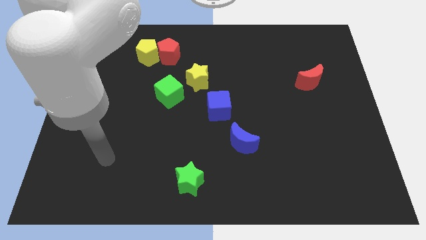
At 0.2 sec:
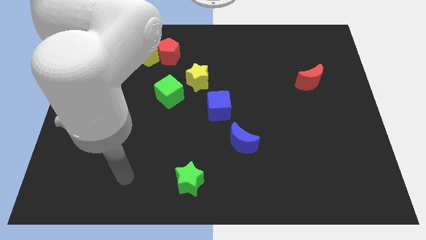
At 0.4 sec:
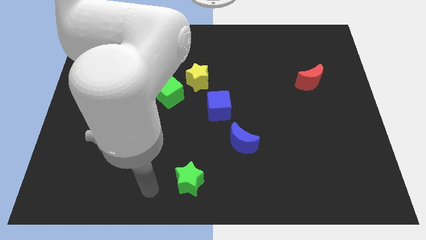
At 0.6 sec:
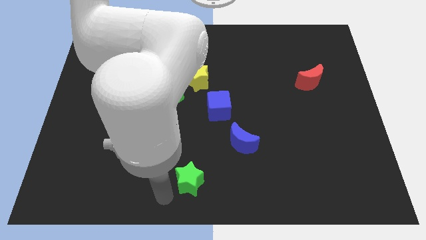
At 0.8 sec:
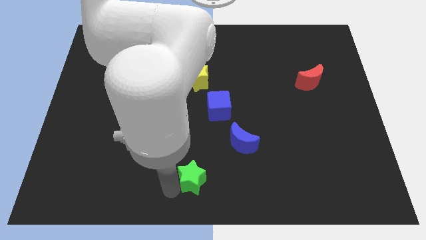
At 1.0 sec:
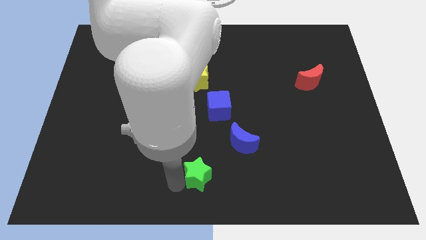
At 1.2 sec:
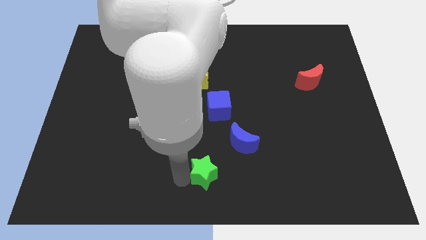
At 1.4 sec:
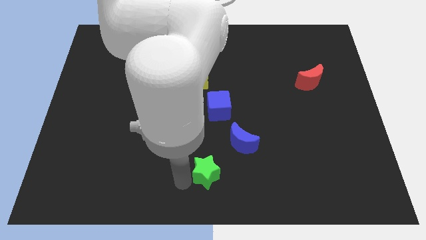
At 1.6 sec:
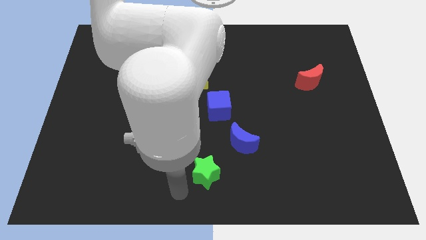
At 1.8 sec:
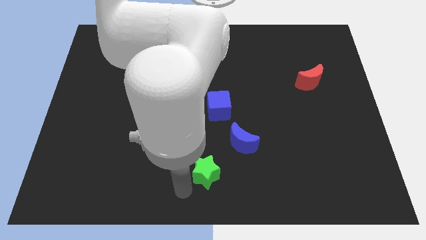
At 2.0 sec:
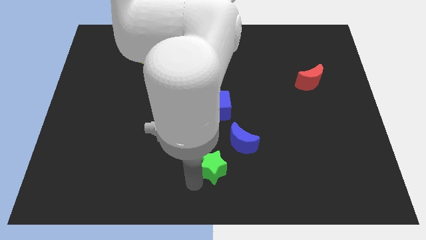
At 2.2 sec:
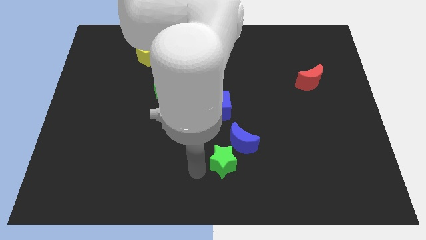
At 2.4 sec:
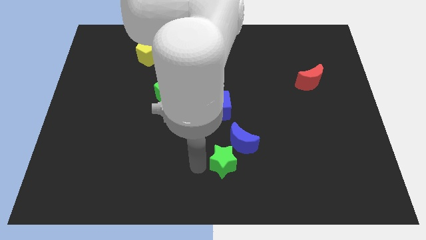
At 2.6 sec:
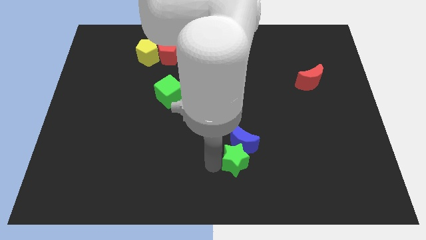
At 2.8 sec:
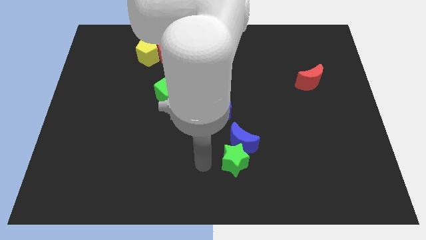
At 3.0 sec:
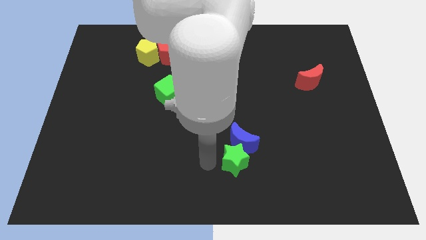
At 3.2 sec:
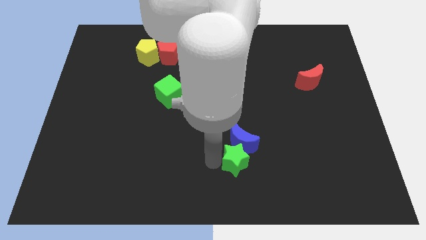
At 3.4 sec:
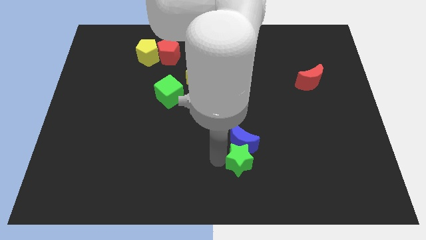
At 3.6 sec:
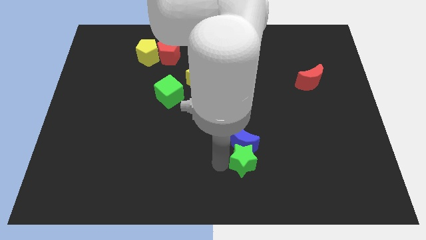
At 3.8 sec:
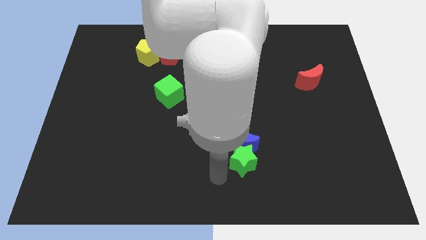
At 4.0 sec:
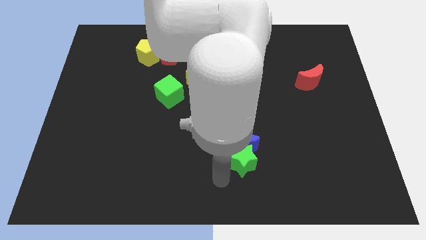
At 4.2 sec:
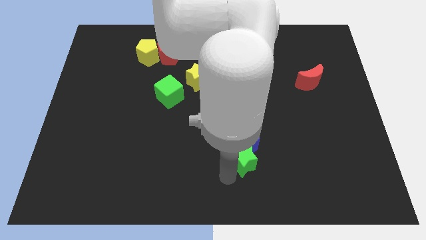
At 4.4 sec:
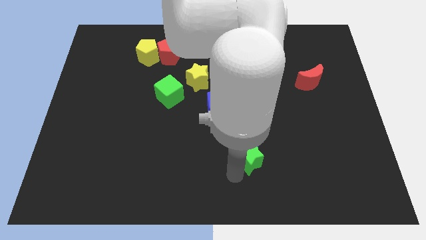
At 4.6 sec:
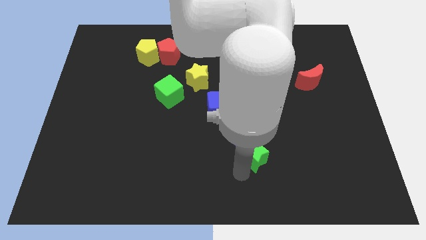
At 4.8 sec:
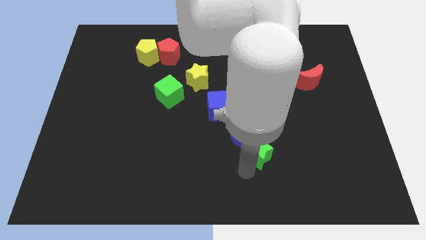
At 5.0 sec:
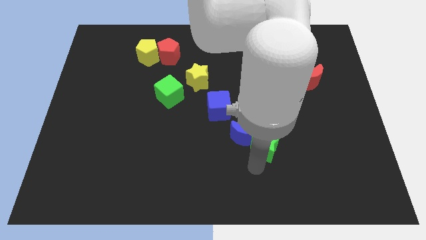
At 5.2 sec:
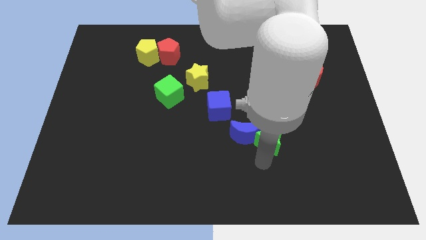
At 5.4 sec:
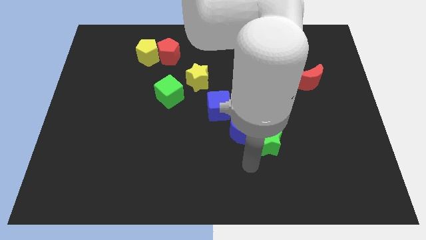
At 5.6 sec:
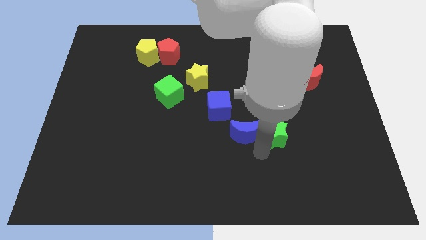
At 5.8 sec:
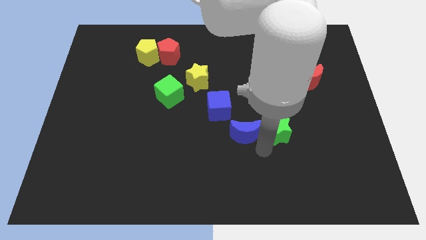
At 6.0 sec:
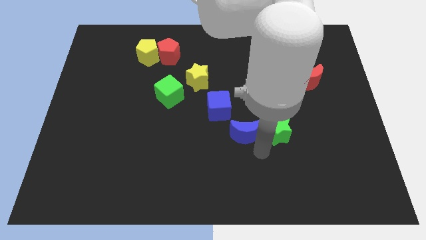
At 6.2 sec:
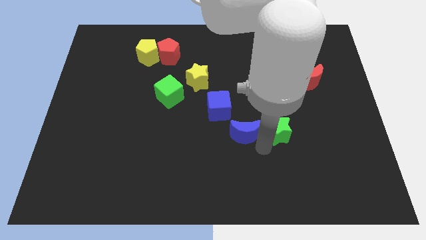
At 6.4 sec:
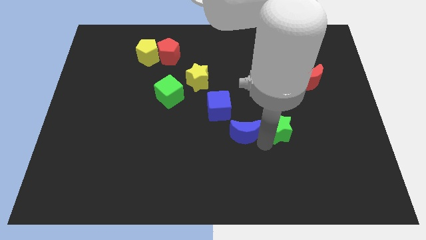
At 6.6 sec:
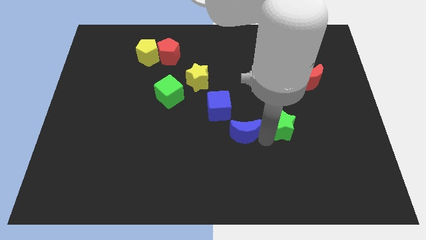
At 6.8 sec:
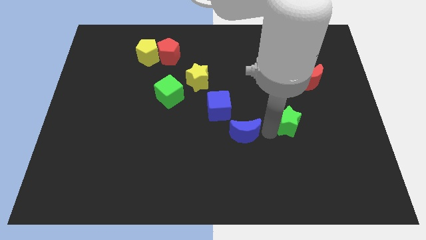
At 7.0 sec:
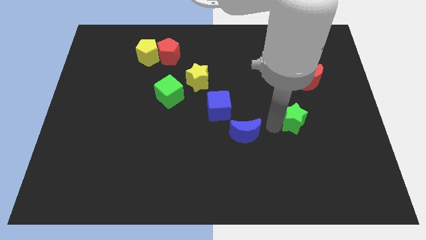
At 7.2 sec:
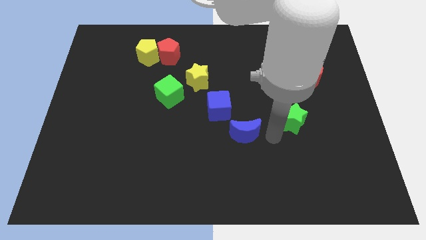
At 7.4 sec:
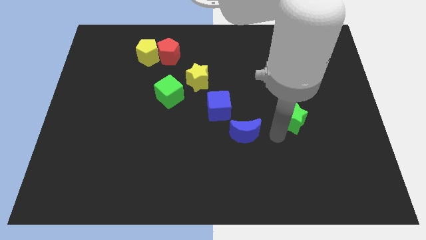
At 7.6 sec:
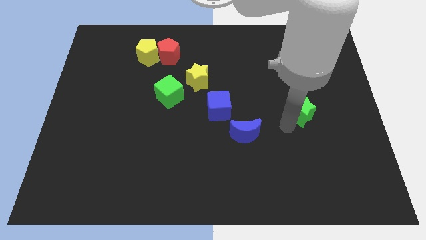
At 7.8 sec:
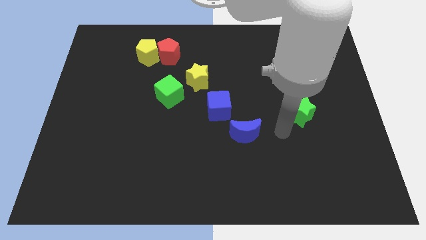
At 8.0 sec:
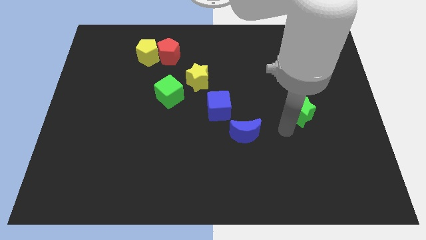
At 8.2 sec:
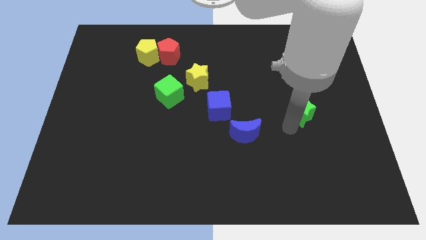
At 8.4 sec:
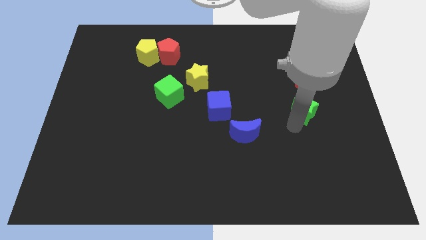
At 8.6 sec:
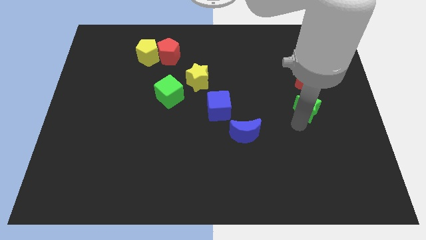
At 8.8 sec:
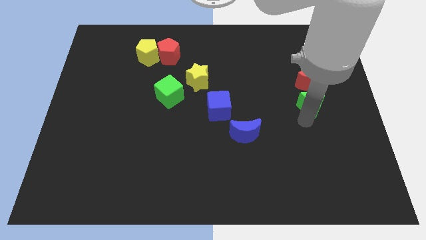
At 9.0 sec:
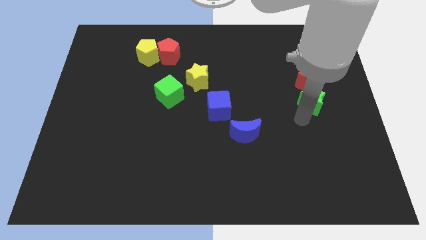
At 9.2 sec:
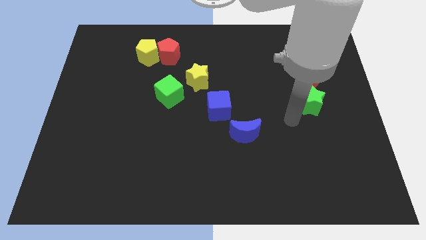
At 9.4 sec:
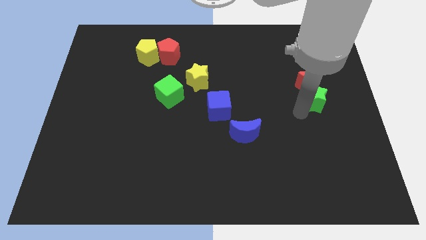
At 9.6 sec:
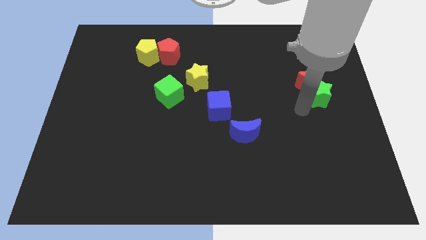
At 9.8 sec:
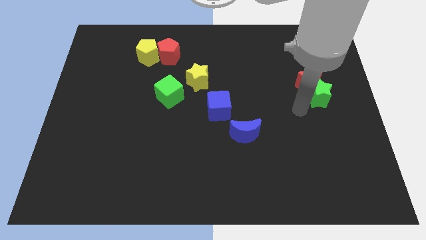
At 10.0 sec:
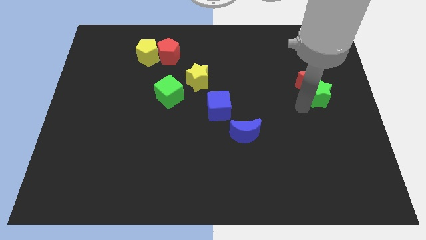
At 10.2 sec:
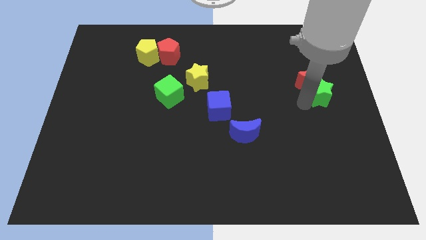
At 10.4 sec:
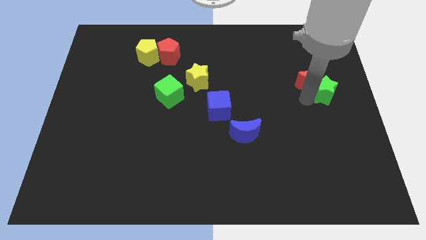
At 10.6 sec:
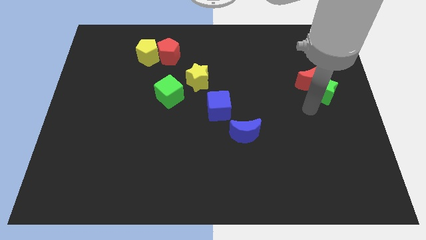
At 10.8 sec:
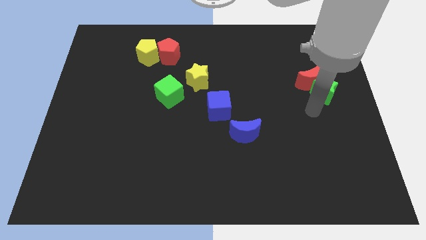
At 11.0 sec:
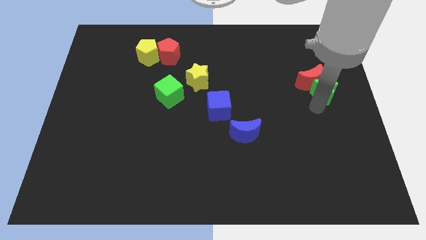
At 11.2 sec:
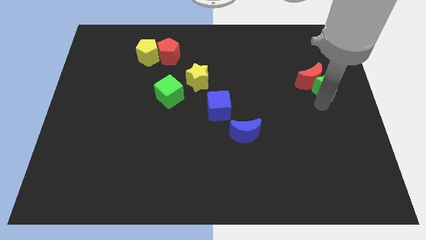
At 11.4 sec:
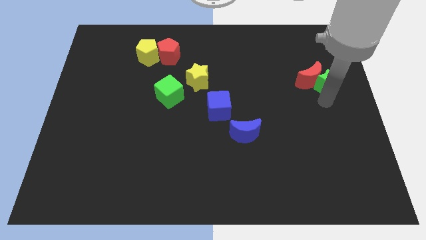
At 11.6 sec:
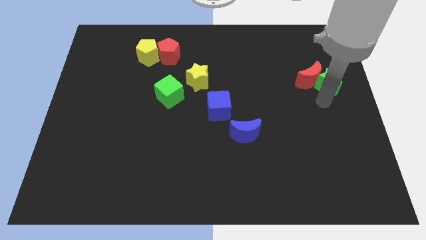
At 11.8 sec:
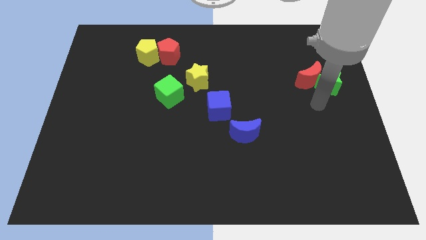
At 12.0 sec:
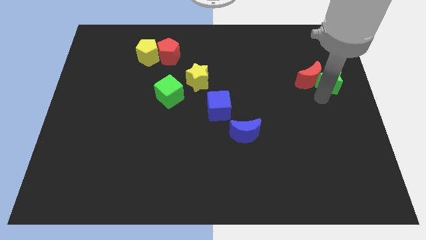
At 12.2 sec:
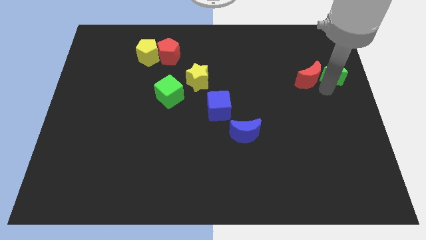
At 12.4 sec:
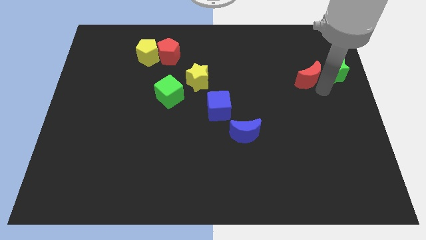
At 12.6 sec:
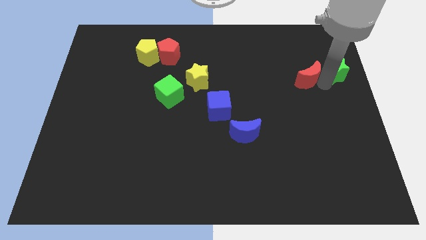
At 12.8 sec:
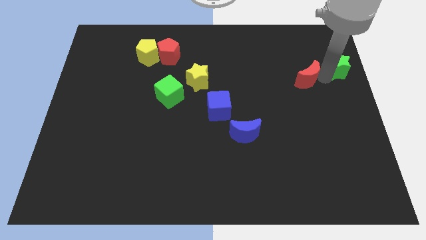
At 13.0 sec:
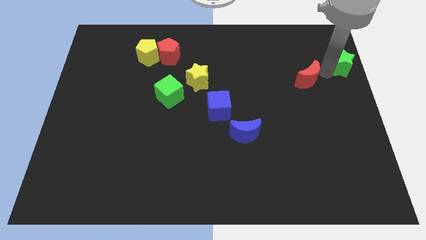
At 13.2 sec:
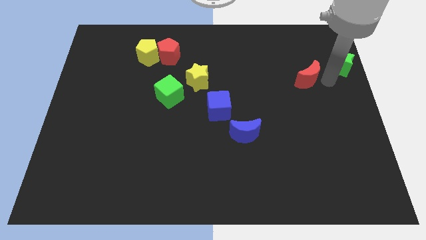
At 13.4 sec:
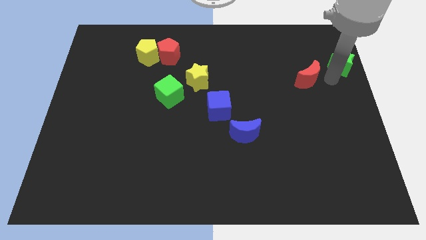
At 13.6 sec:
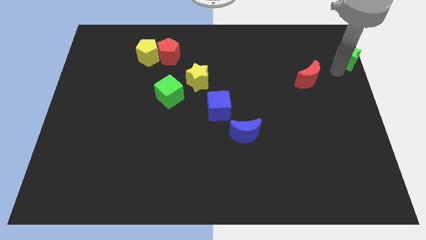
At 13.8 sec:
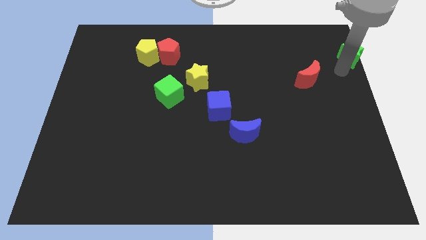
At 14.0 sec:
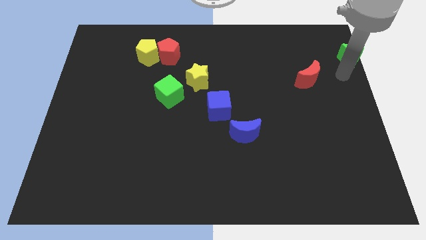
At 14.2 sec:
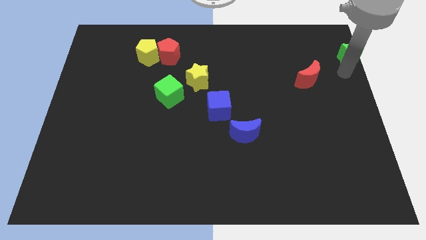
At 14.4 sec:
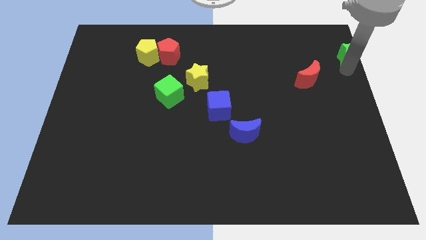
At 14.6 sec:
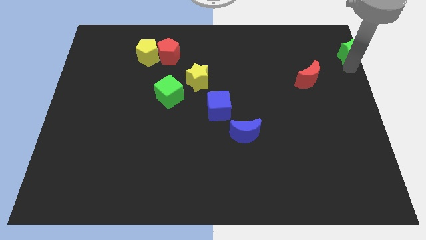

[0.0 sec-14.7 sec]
move the green star to the upper right corner
